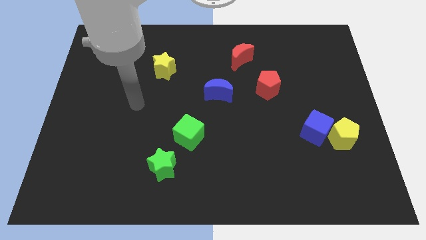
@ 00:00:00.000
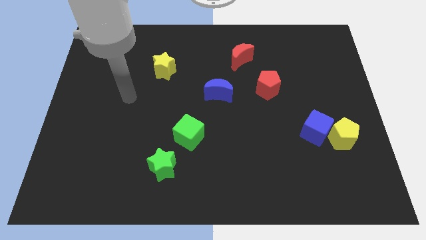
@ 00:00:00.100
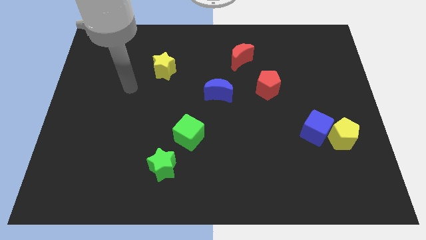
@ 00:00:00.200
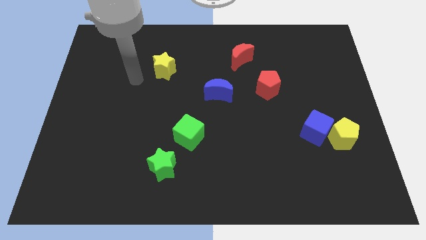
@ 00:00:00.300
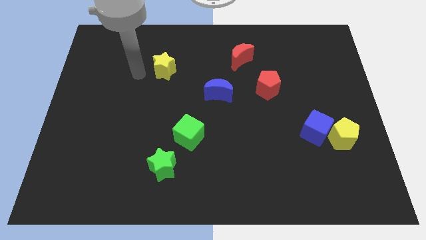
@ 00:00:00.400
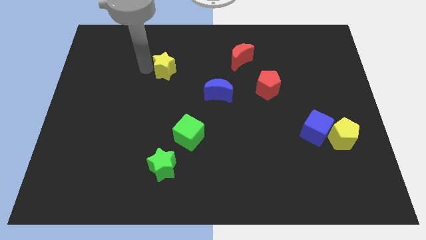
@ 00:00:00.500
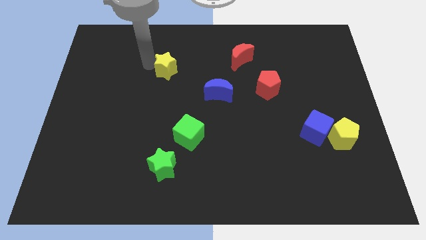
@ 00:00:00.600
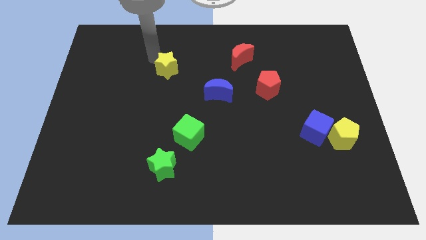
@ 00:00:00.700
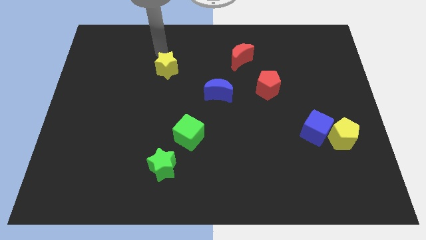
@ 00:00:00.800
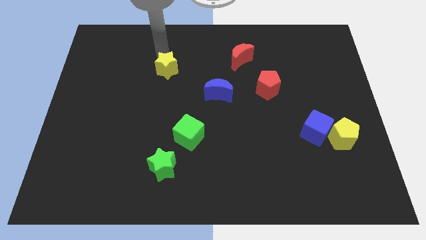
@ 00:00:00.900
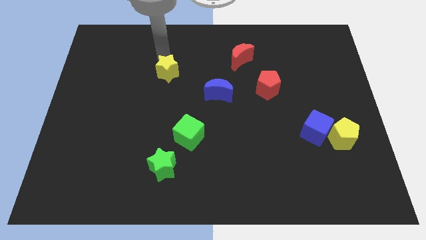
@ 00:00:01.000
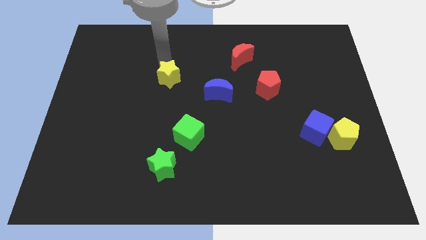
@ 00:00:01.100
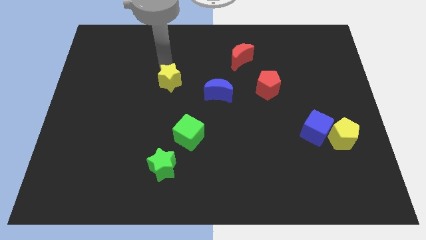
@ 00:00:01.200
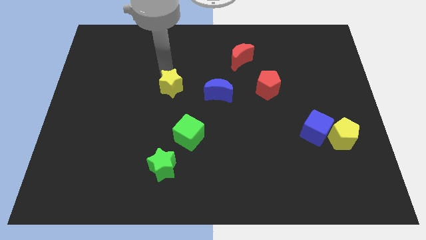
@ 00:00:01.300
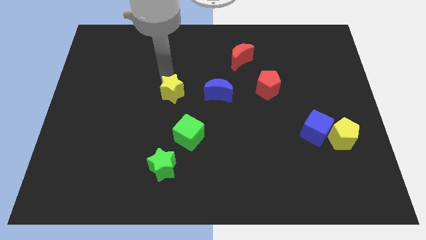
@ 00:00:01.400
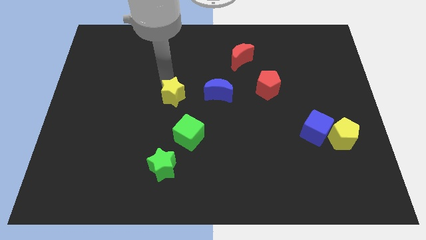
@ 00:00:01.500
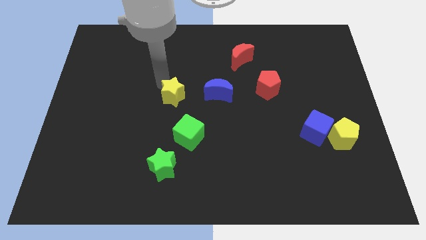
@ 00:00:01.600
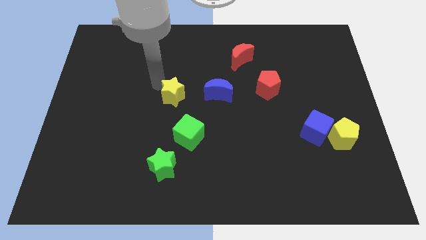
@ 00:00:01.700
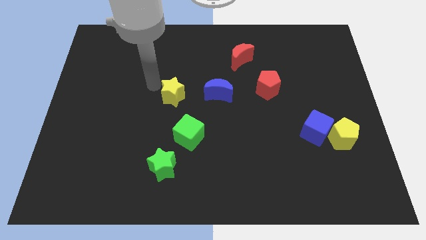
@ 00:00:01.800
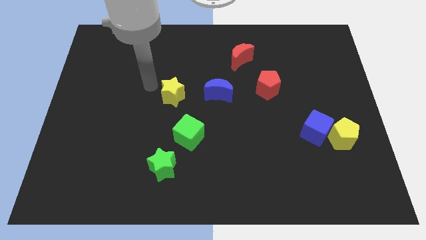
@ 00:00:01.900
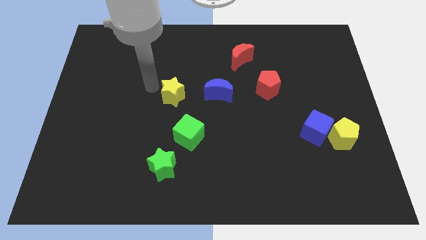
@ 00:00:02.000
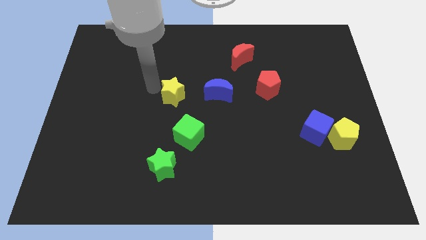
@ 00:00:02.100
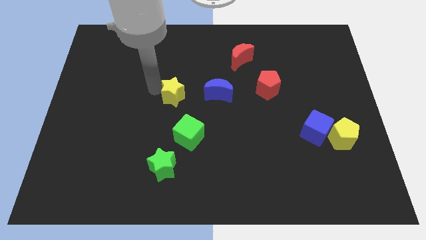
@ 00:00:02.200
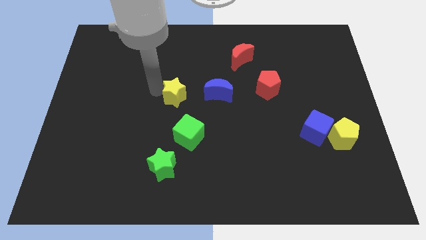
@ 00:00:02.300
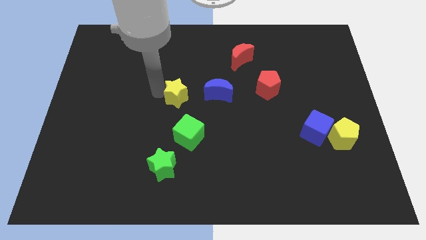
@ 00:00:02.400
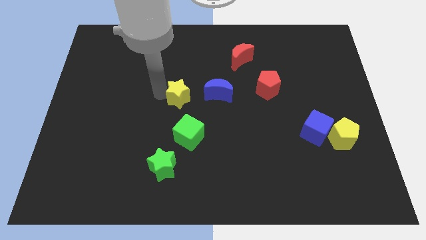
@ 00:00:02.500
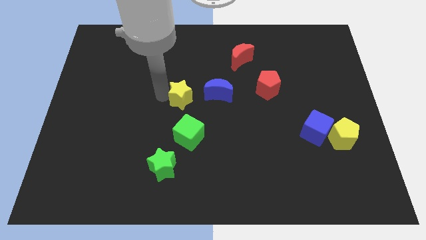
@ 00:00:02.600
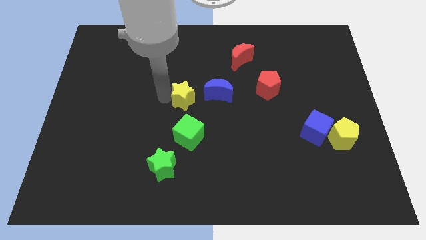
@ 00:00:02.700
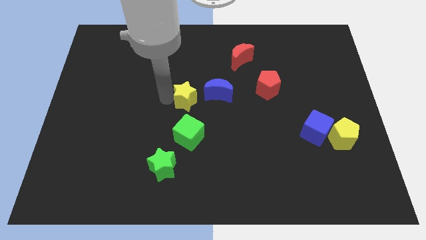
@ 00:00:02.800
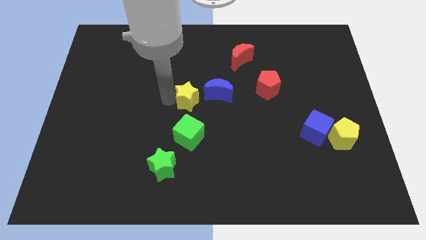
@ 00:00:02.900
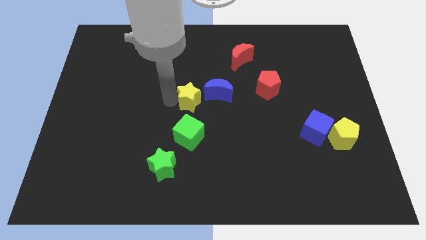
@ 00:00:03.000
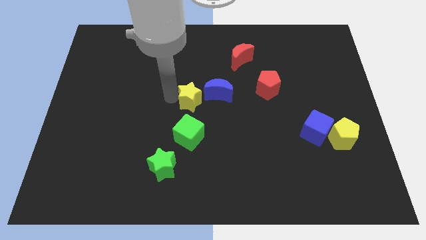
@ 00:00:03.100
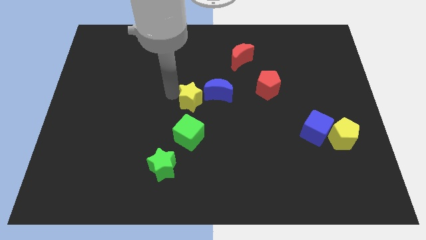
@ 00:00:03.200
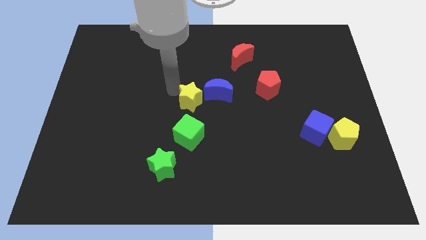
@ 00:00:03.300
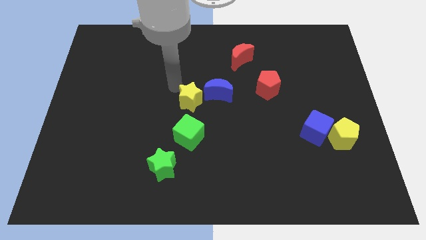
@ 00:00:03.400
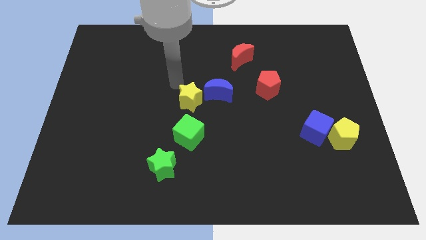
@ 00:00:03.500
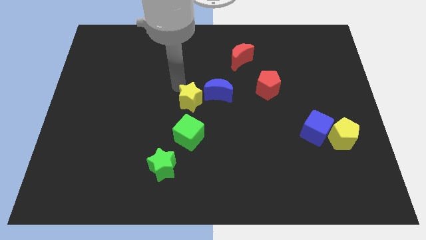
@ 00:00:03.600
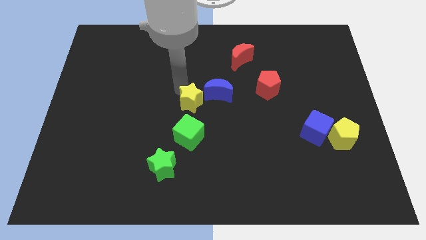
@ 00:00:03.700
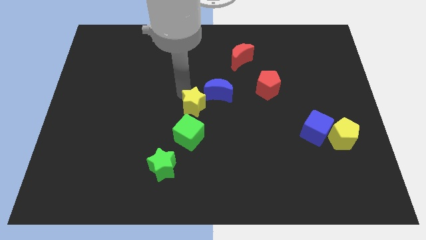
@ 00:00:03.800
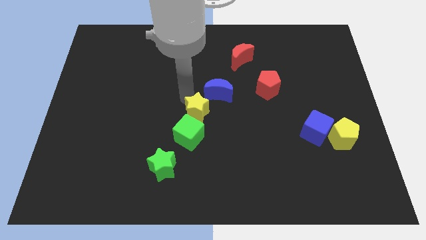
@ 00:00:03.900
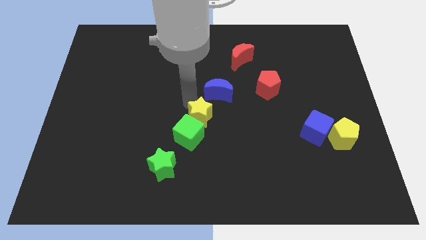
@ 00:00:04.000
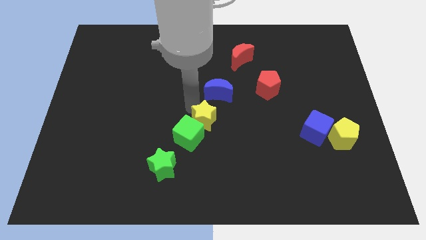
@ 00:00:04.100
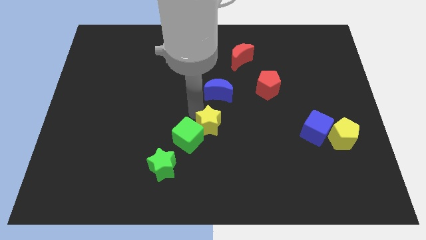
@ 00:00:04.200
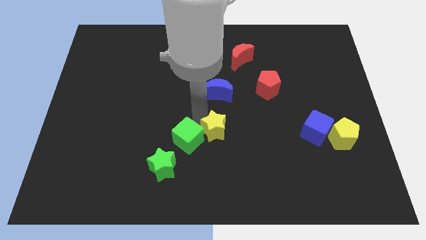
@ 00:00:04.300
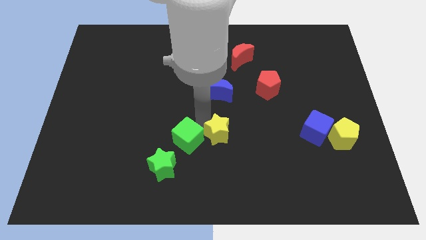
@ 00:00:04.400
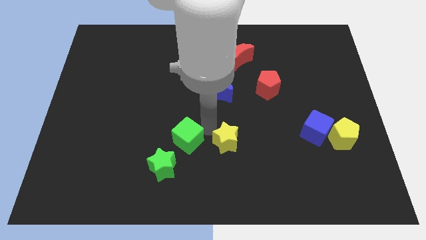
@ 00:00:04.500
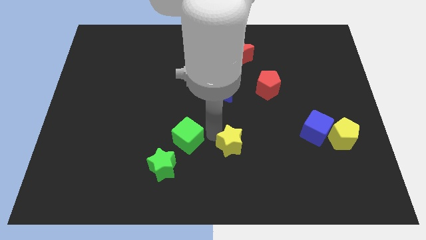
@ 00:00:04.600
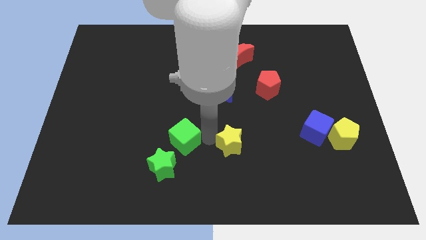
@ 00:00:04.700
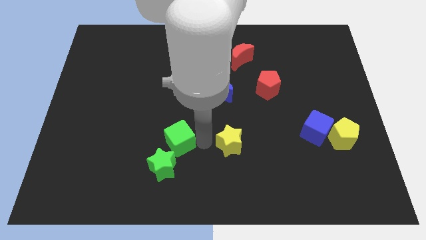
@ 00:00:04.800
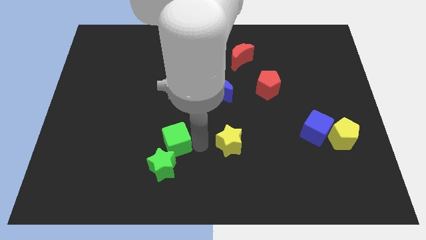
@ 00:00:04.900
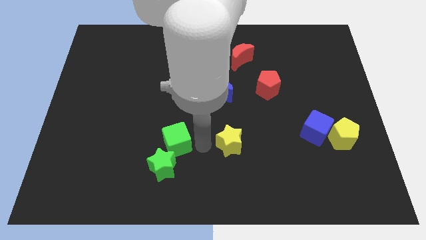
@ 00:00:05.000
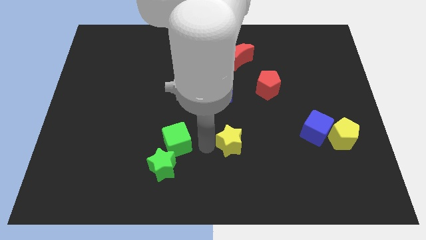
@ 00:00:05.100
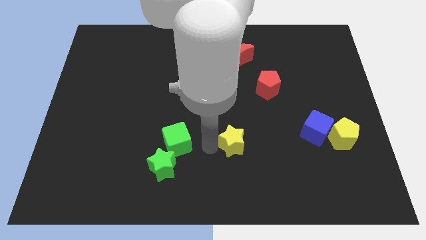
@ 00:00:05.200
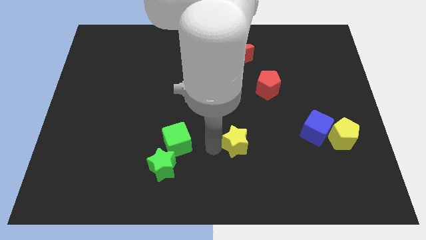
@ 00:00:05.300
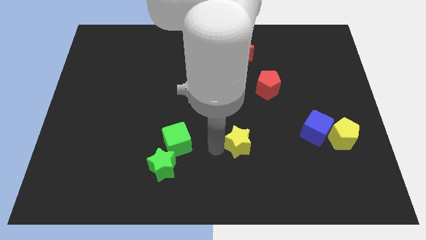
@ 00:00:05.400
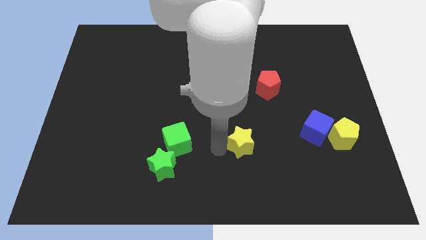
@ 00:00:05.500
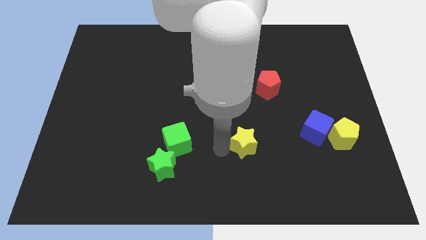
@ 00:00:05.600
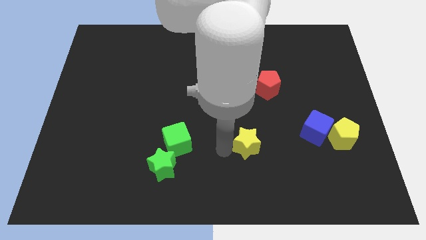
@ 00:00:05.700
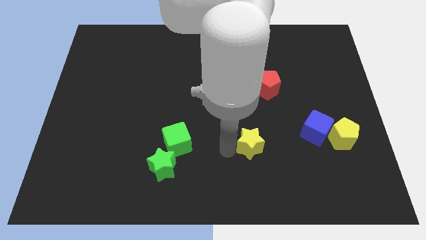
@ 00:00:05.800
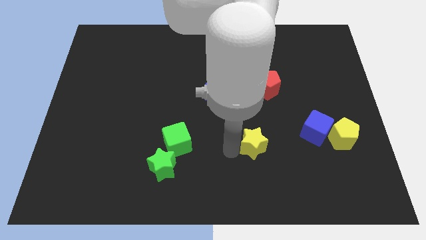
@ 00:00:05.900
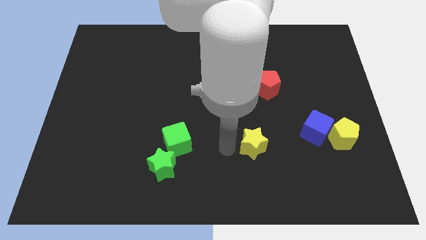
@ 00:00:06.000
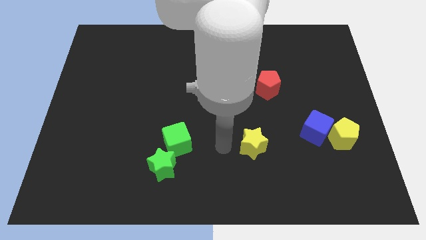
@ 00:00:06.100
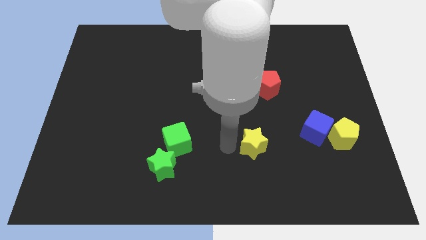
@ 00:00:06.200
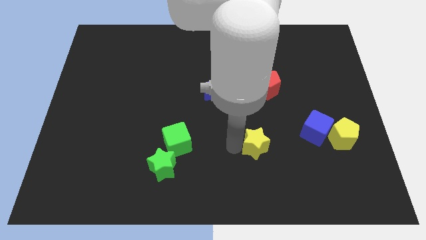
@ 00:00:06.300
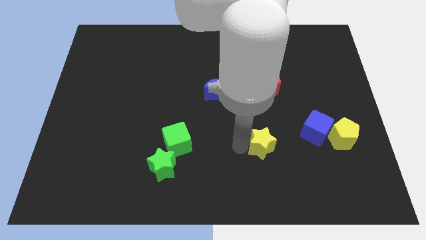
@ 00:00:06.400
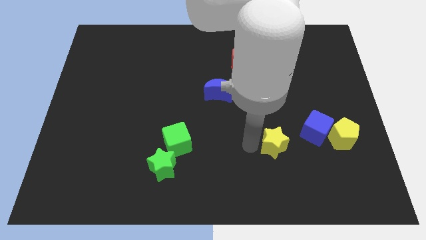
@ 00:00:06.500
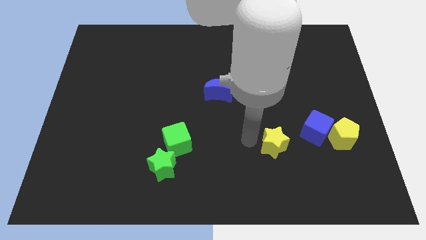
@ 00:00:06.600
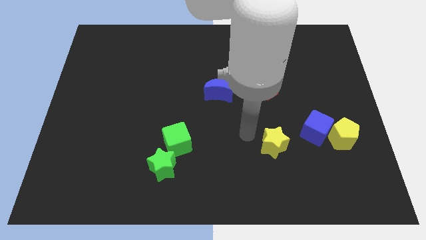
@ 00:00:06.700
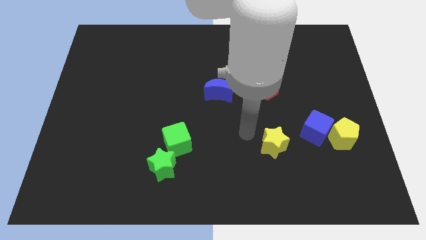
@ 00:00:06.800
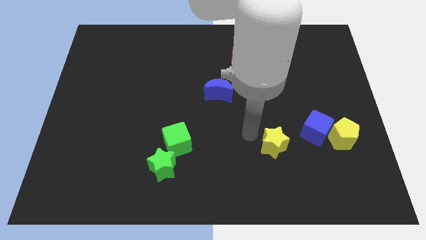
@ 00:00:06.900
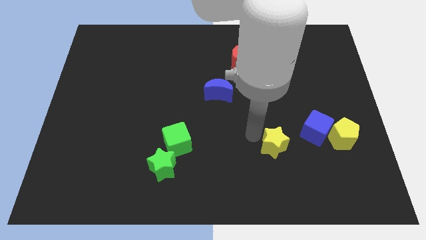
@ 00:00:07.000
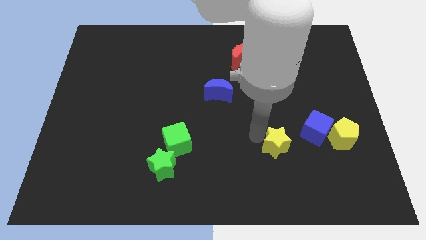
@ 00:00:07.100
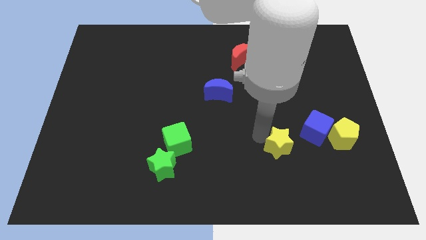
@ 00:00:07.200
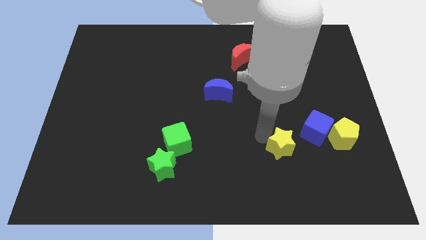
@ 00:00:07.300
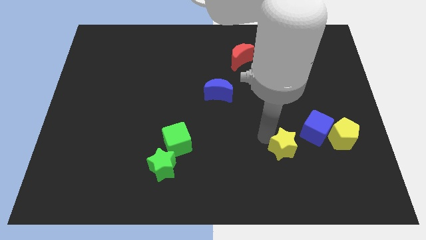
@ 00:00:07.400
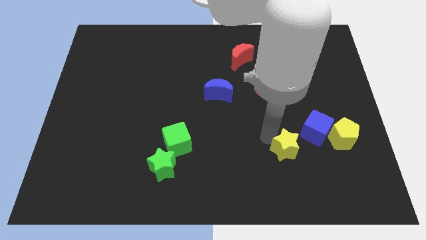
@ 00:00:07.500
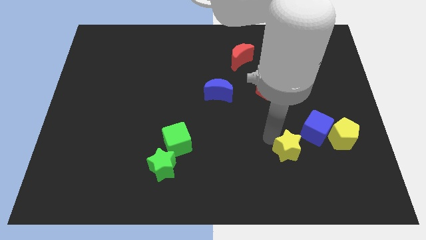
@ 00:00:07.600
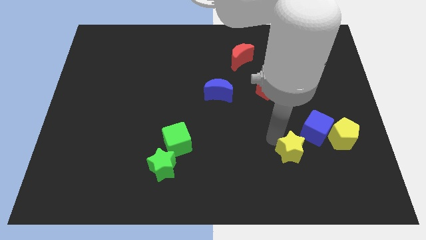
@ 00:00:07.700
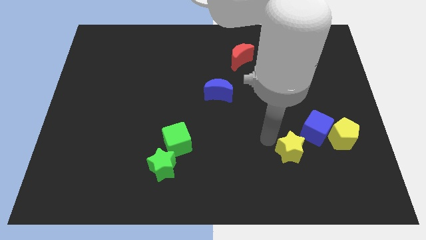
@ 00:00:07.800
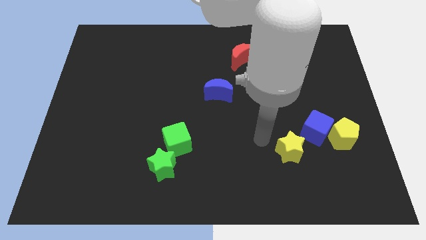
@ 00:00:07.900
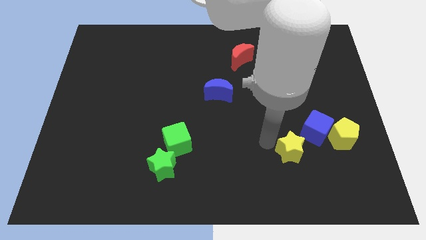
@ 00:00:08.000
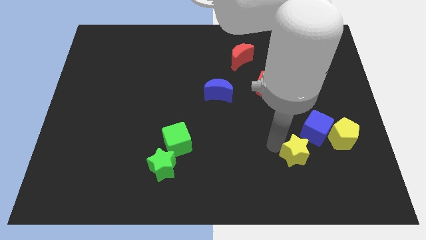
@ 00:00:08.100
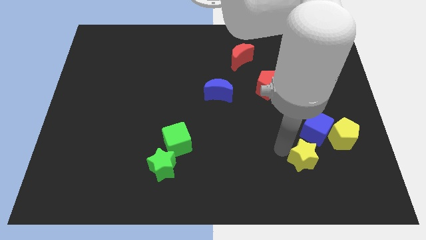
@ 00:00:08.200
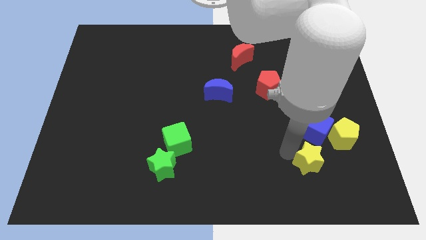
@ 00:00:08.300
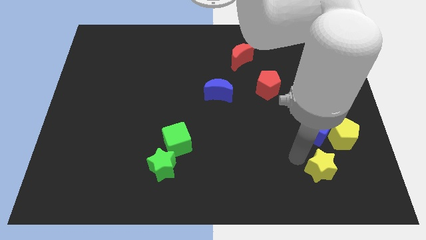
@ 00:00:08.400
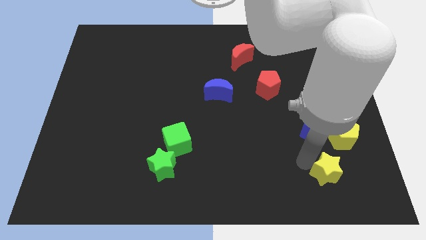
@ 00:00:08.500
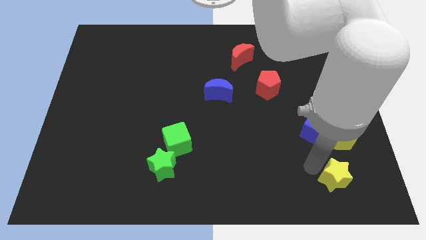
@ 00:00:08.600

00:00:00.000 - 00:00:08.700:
slide the yellow star below the yellow pentagon
